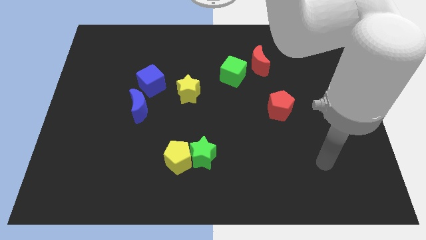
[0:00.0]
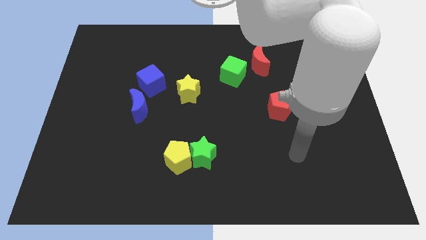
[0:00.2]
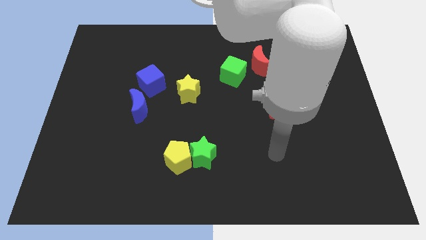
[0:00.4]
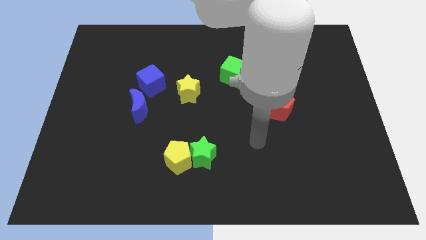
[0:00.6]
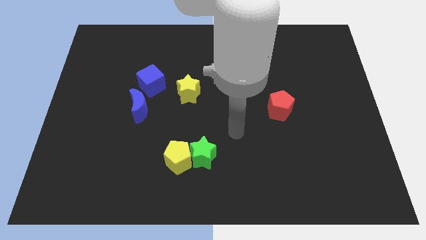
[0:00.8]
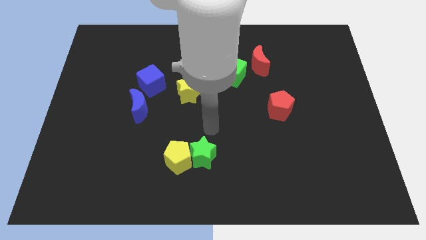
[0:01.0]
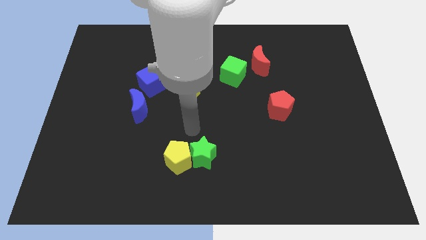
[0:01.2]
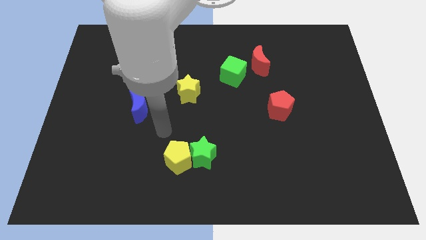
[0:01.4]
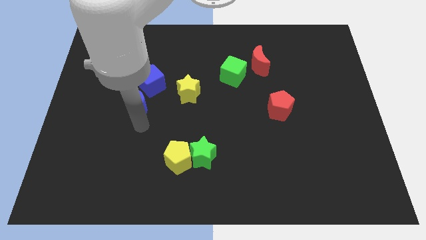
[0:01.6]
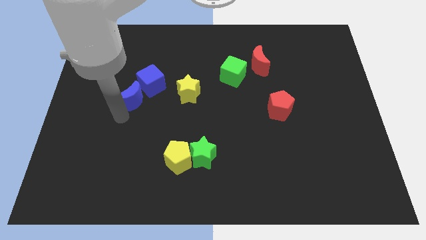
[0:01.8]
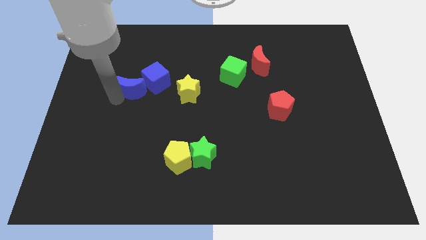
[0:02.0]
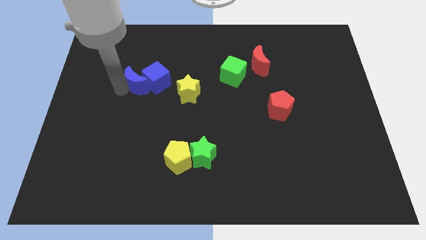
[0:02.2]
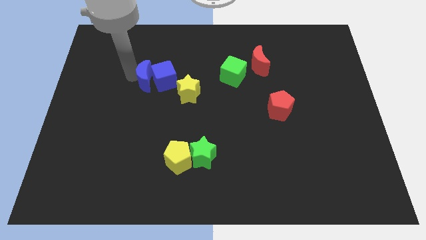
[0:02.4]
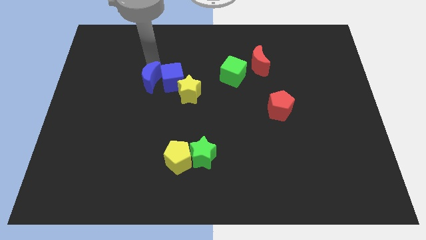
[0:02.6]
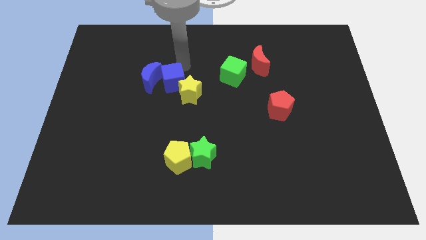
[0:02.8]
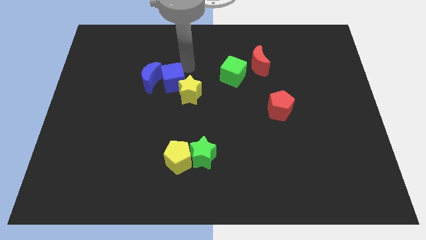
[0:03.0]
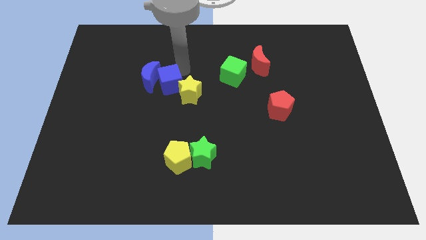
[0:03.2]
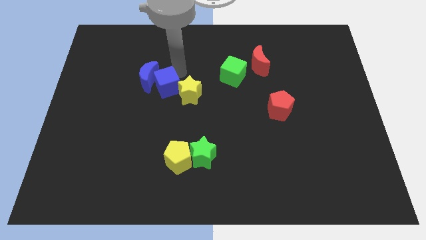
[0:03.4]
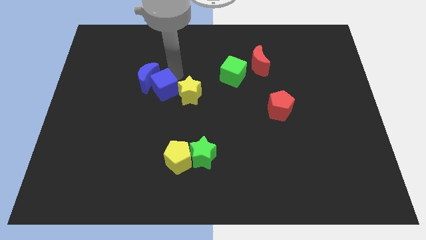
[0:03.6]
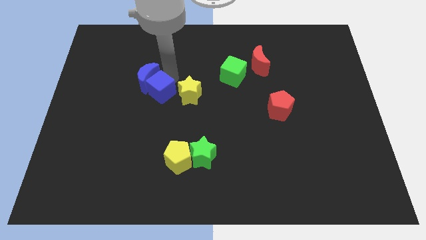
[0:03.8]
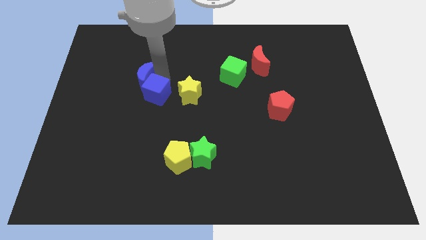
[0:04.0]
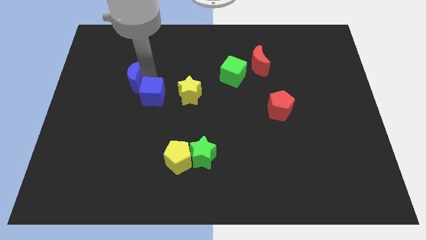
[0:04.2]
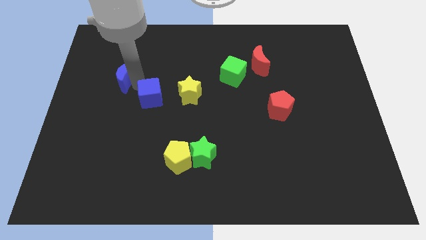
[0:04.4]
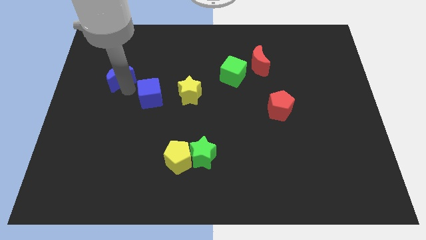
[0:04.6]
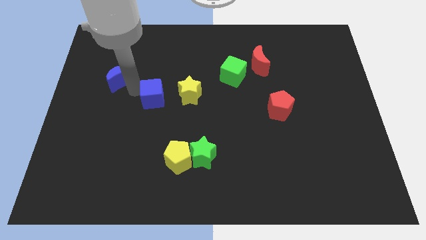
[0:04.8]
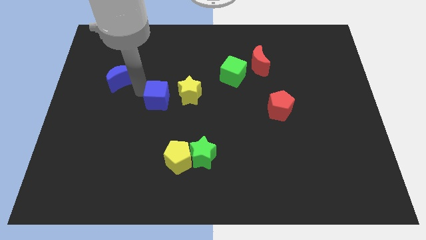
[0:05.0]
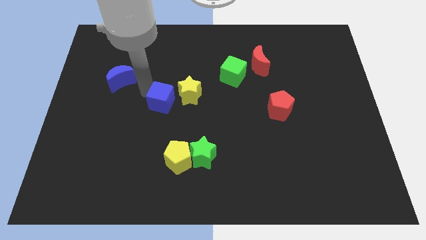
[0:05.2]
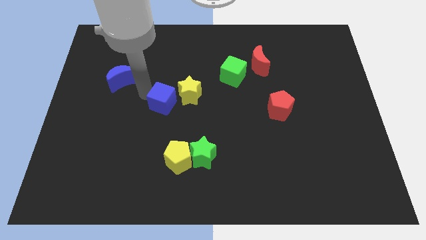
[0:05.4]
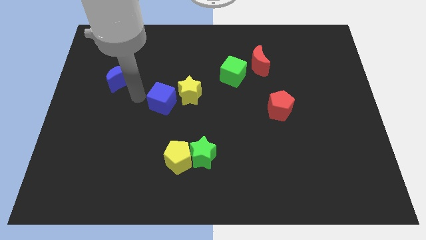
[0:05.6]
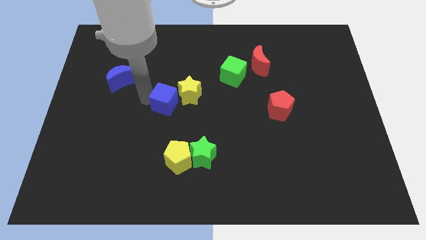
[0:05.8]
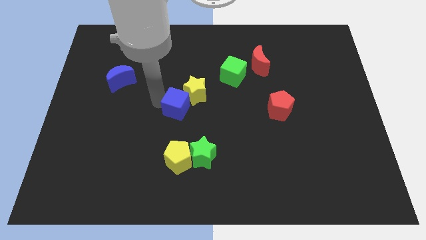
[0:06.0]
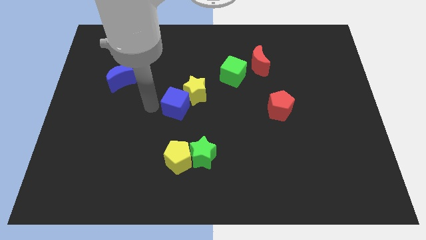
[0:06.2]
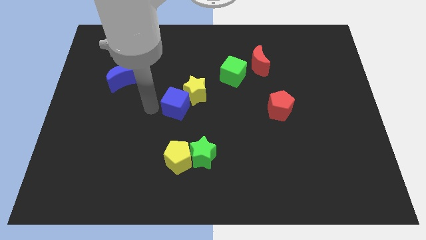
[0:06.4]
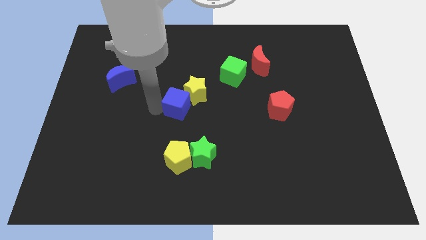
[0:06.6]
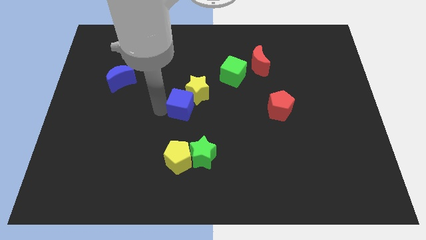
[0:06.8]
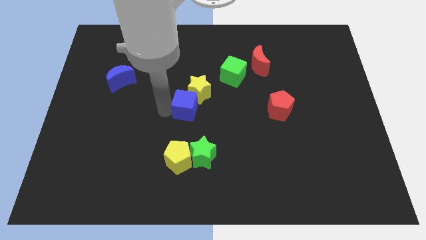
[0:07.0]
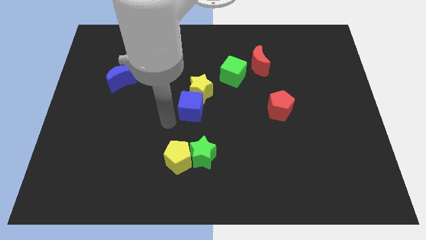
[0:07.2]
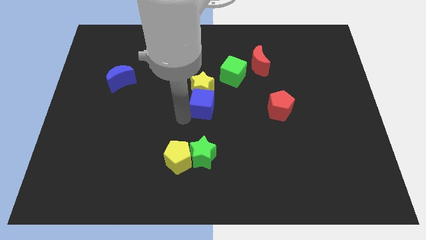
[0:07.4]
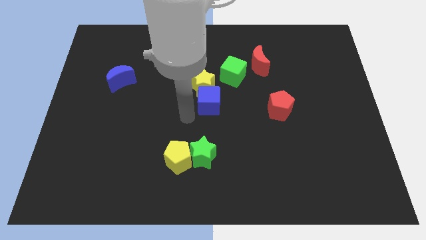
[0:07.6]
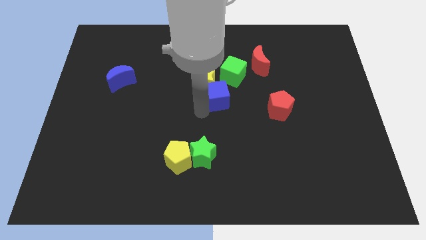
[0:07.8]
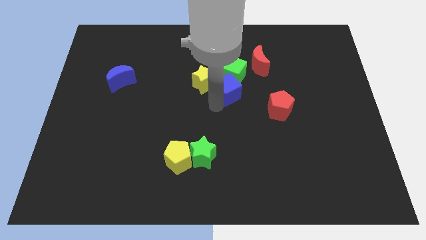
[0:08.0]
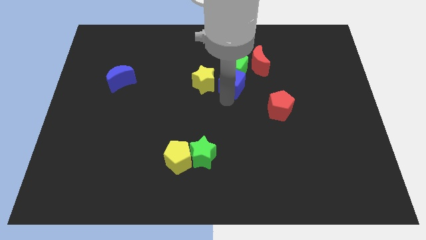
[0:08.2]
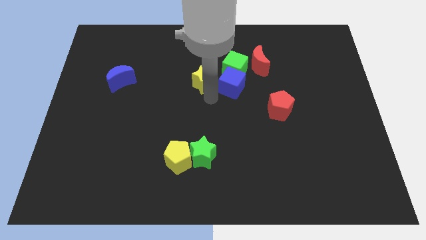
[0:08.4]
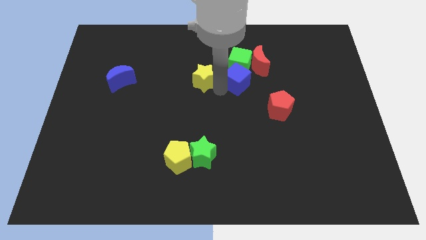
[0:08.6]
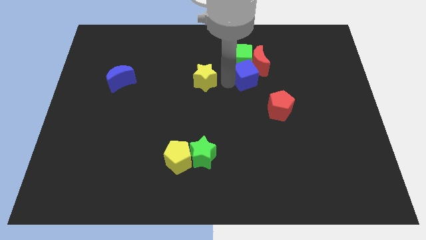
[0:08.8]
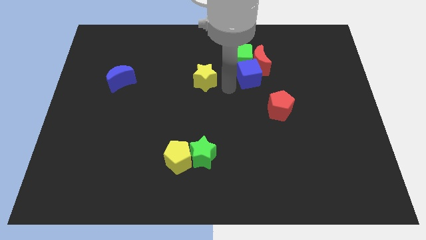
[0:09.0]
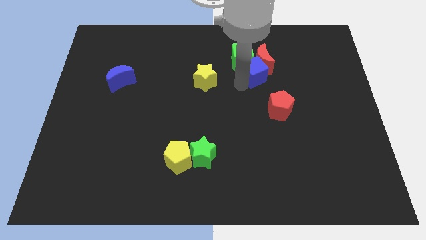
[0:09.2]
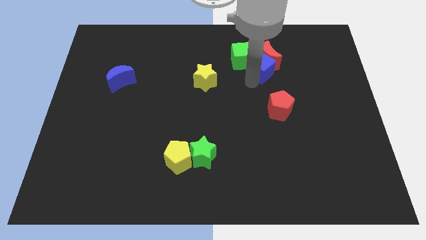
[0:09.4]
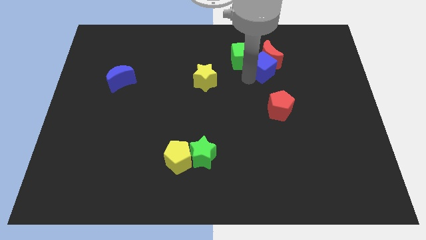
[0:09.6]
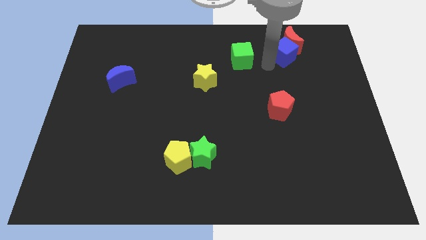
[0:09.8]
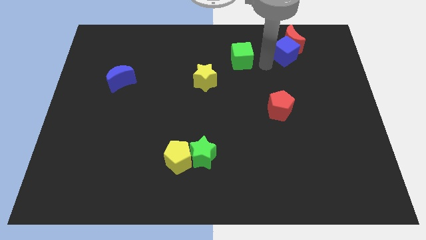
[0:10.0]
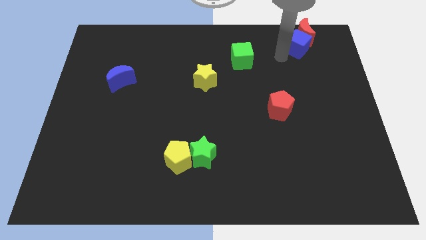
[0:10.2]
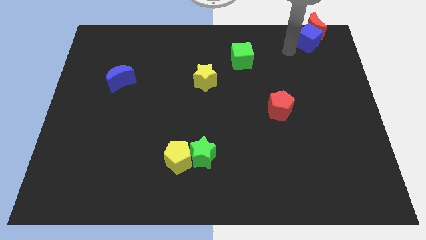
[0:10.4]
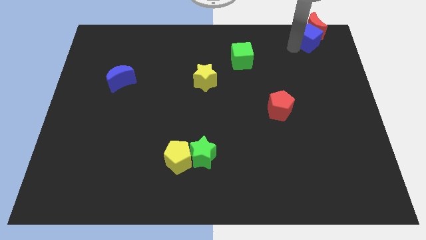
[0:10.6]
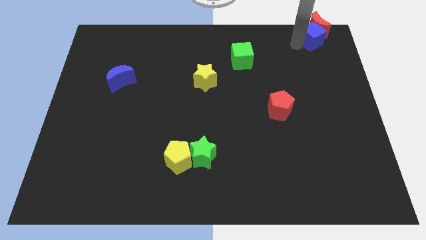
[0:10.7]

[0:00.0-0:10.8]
push the blue cube to the upper right corner

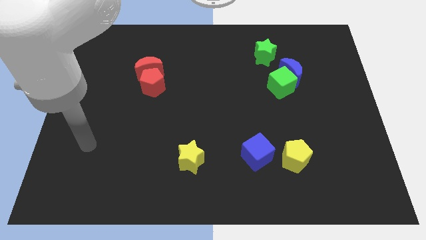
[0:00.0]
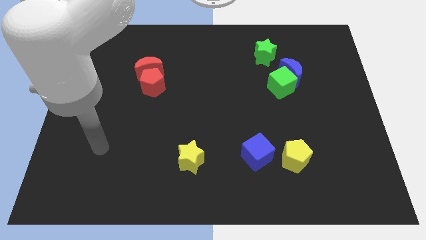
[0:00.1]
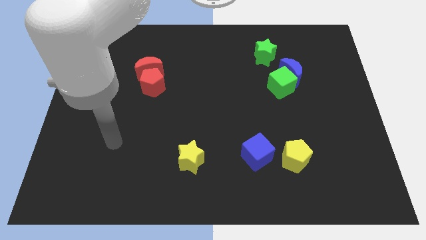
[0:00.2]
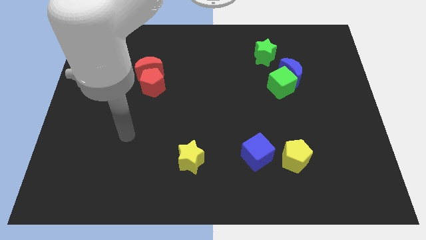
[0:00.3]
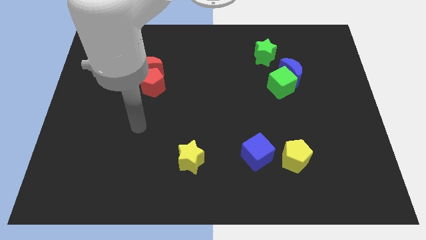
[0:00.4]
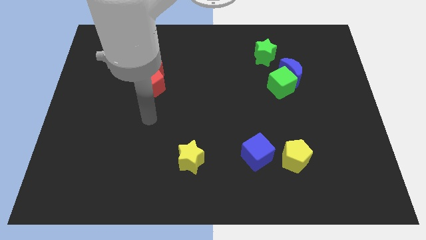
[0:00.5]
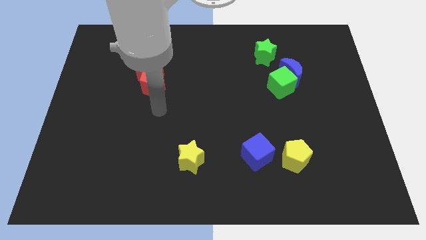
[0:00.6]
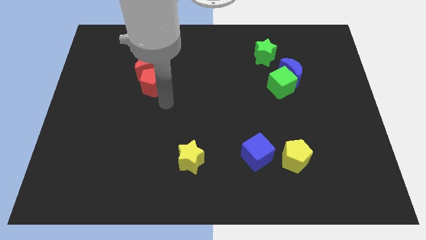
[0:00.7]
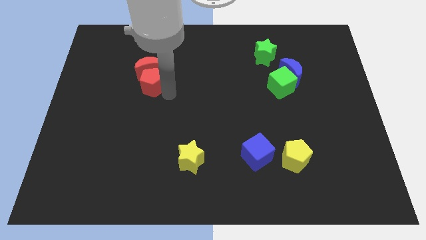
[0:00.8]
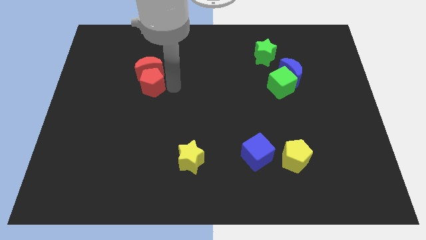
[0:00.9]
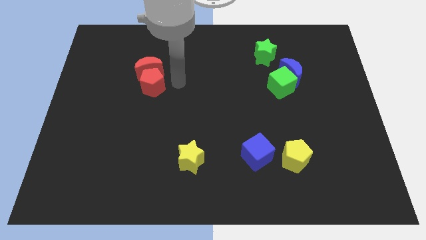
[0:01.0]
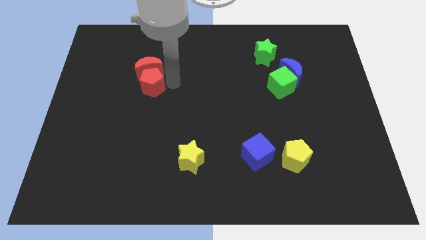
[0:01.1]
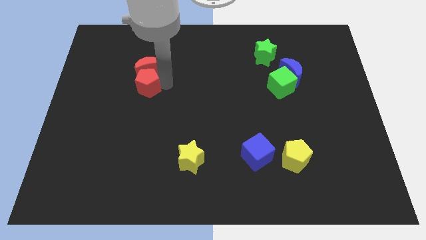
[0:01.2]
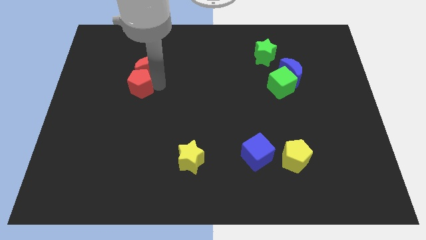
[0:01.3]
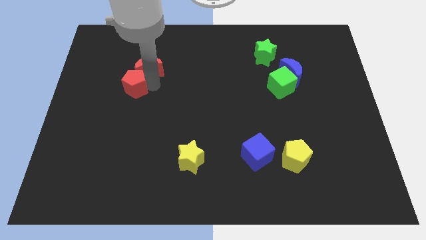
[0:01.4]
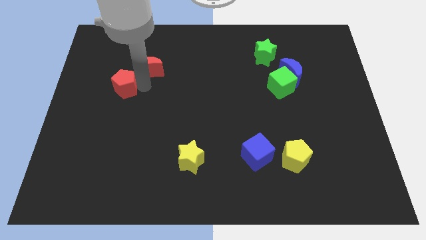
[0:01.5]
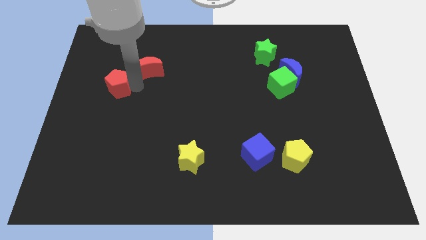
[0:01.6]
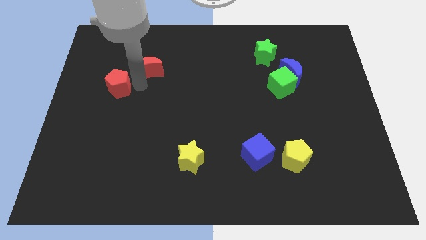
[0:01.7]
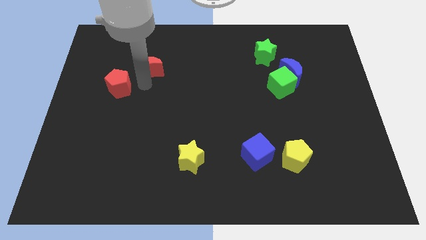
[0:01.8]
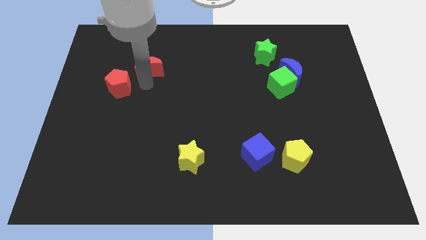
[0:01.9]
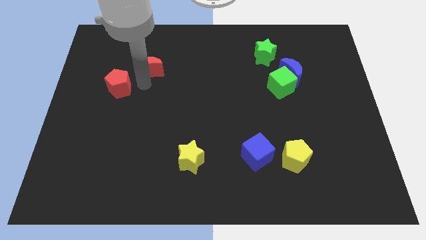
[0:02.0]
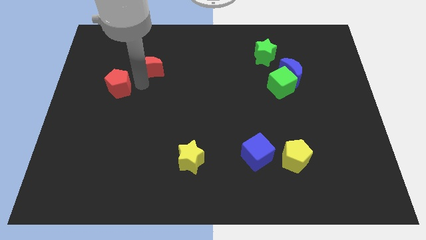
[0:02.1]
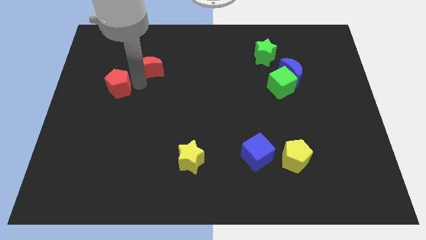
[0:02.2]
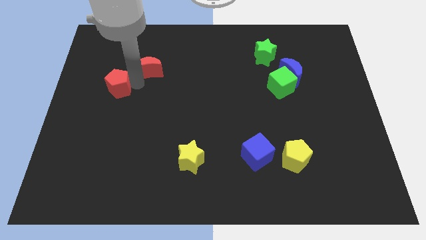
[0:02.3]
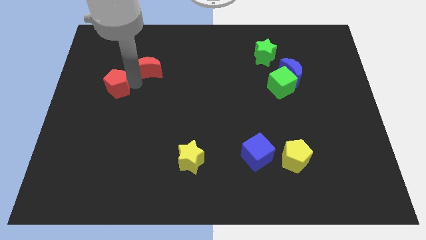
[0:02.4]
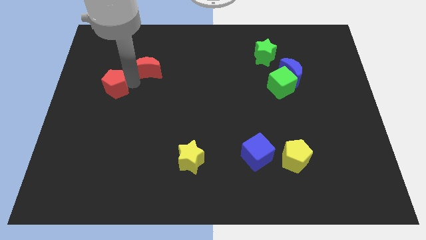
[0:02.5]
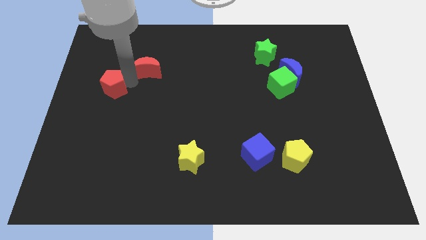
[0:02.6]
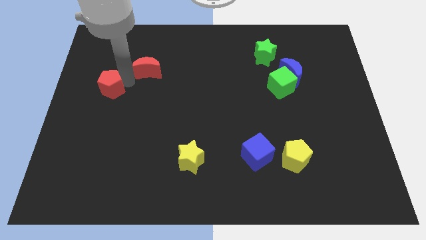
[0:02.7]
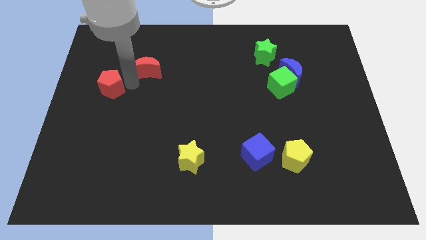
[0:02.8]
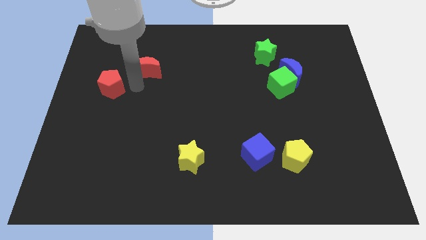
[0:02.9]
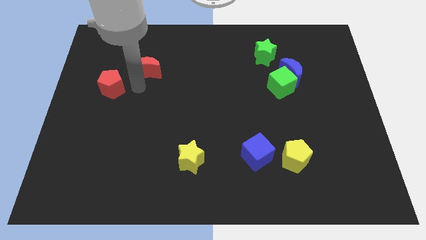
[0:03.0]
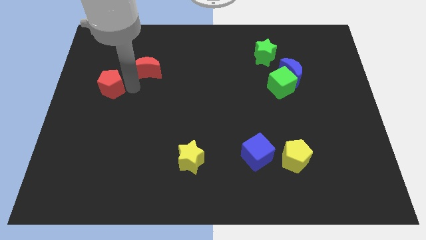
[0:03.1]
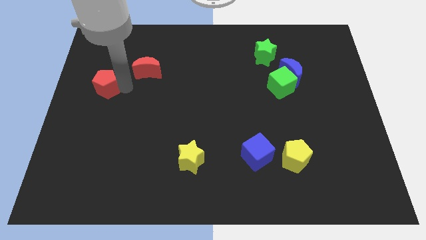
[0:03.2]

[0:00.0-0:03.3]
move the red pentagon to the center left
